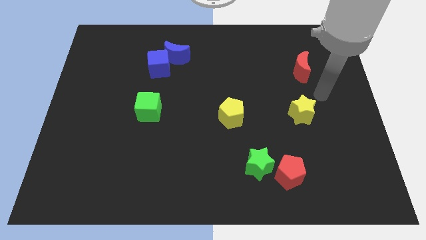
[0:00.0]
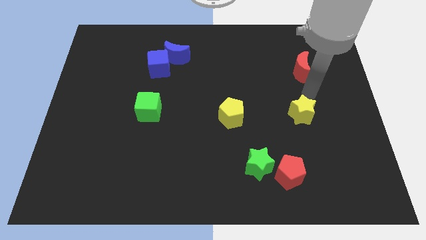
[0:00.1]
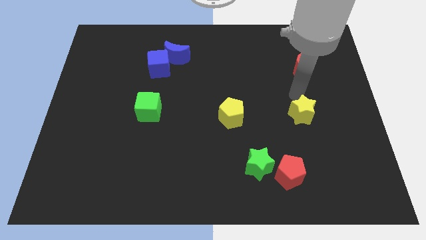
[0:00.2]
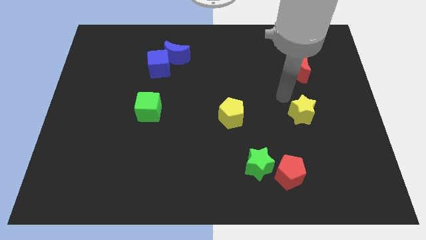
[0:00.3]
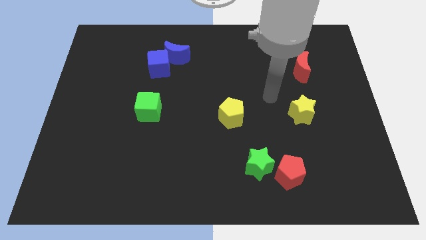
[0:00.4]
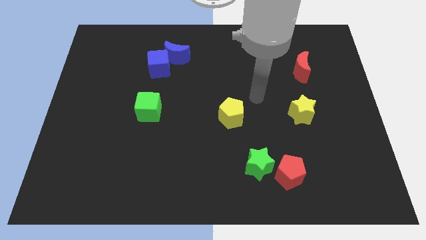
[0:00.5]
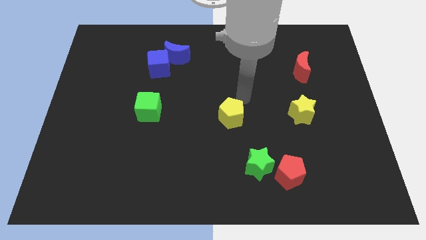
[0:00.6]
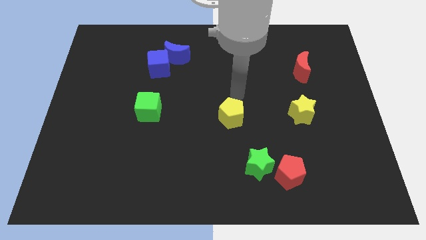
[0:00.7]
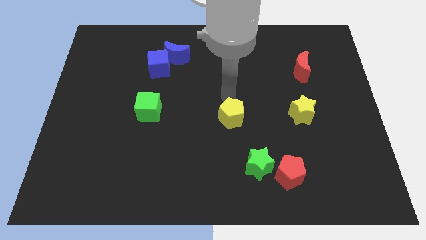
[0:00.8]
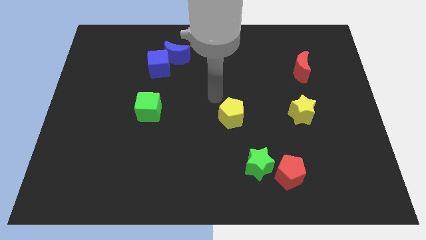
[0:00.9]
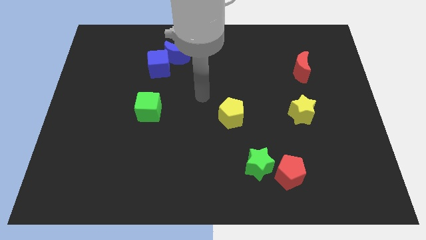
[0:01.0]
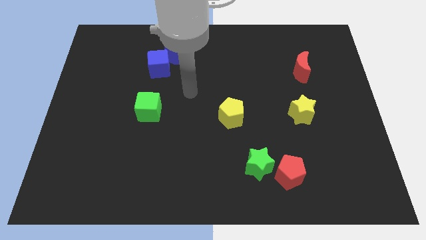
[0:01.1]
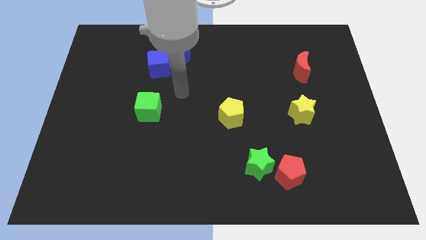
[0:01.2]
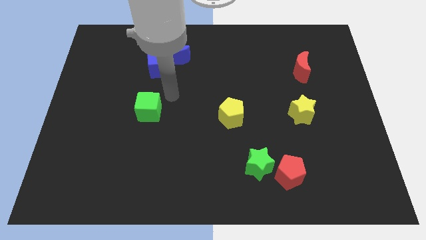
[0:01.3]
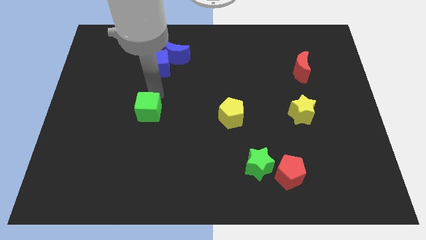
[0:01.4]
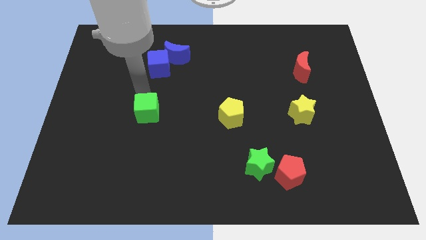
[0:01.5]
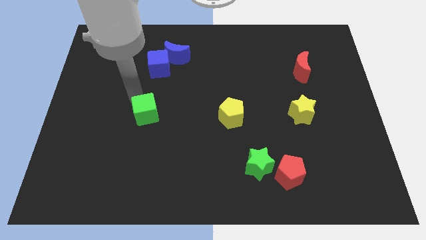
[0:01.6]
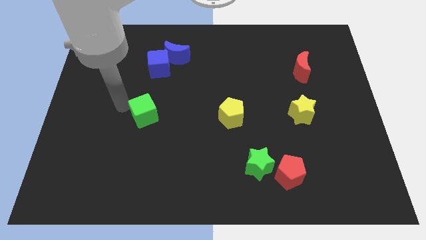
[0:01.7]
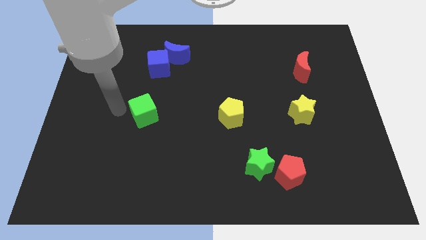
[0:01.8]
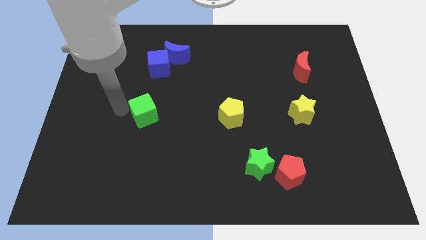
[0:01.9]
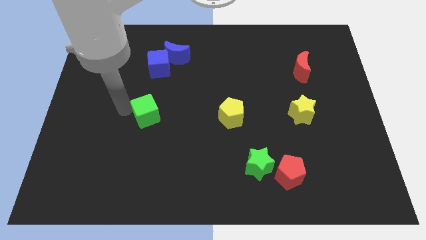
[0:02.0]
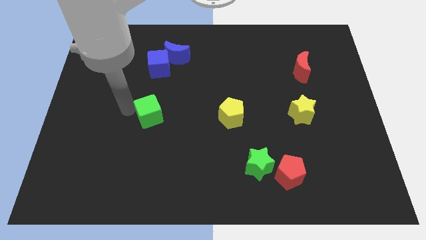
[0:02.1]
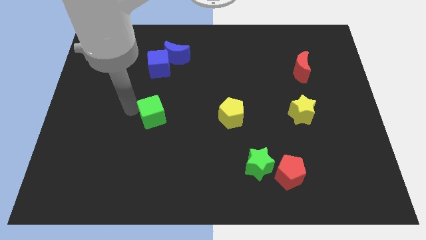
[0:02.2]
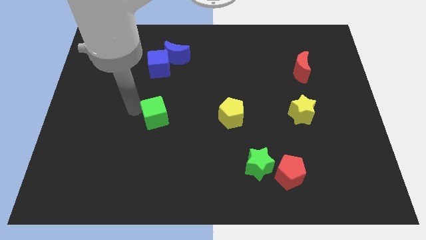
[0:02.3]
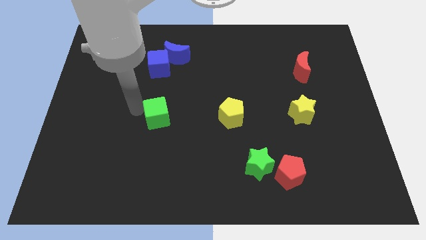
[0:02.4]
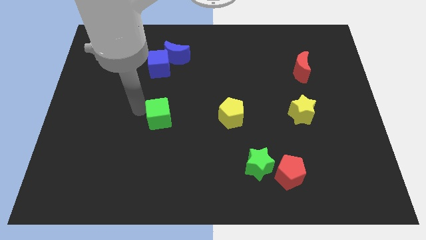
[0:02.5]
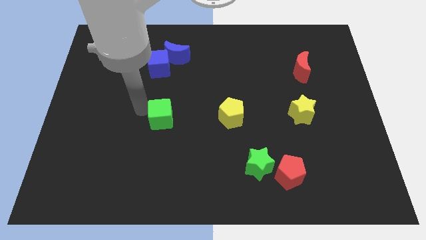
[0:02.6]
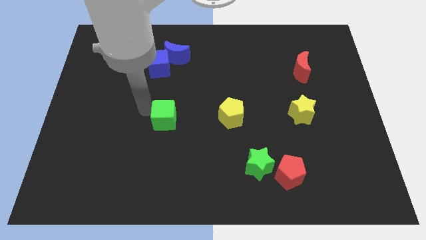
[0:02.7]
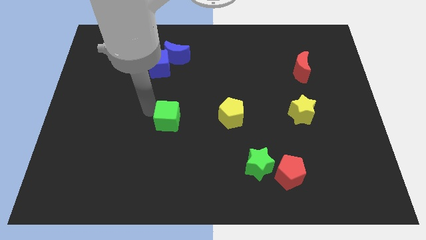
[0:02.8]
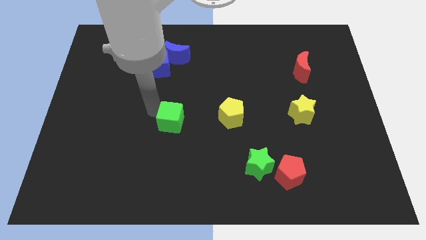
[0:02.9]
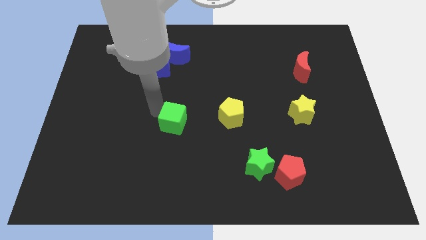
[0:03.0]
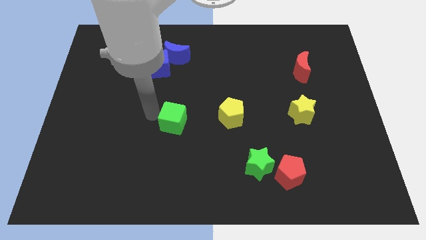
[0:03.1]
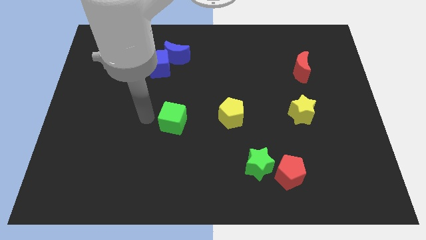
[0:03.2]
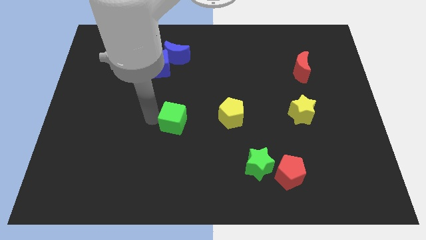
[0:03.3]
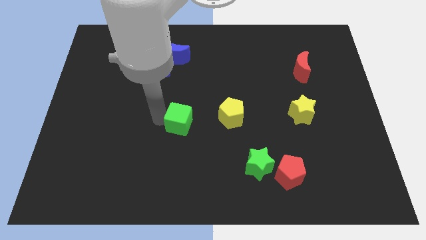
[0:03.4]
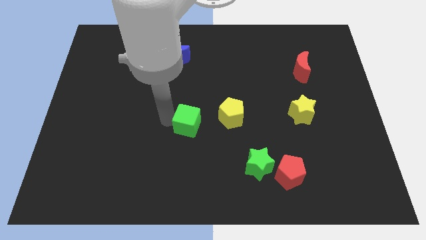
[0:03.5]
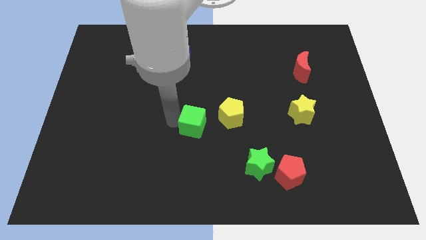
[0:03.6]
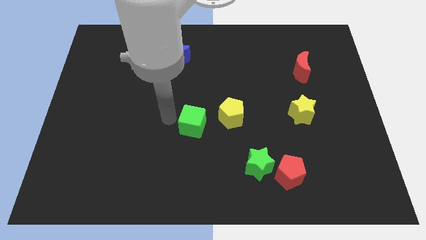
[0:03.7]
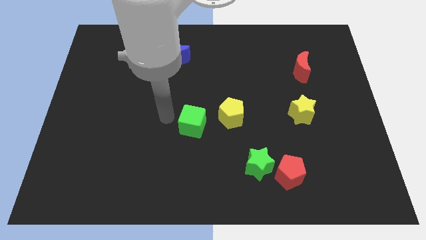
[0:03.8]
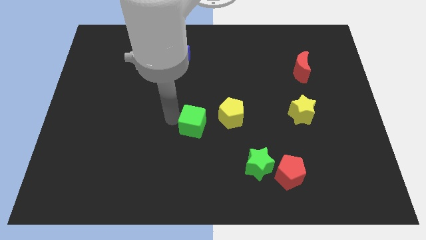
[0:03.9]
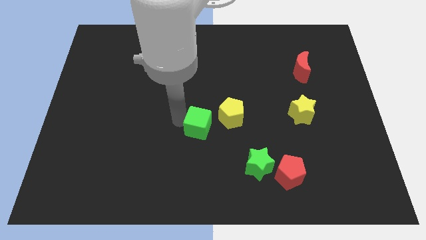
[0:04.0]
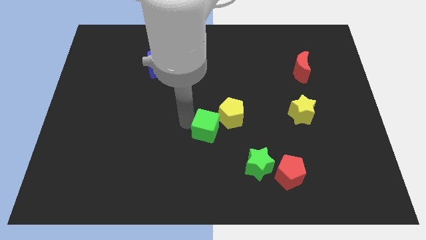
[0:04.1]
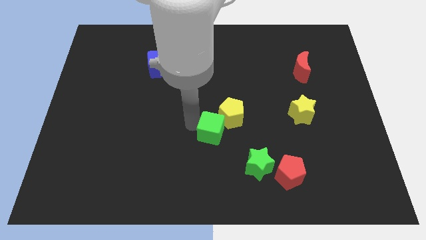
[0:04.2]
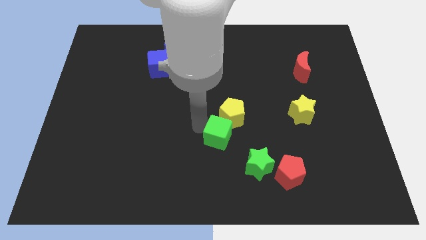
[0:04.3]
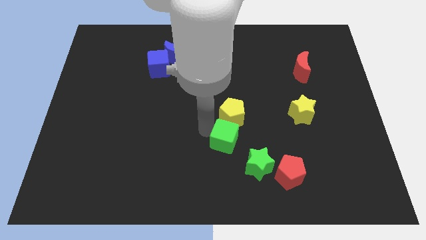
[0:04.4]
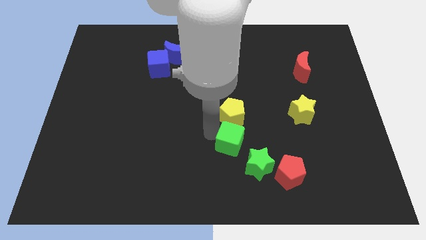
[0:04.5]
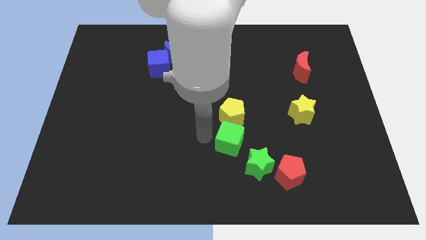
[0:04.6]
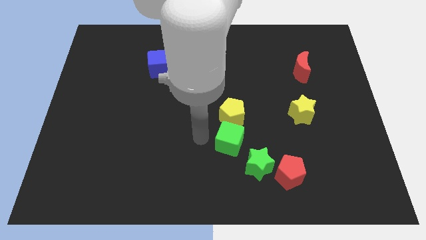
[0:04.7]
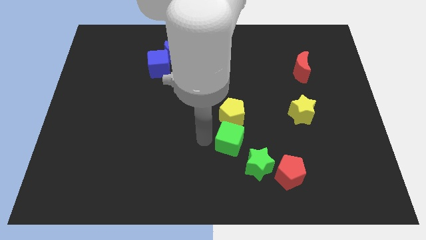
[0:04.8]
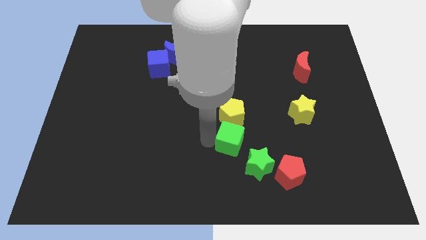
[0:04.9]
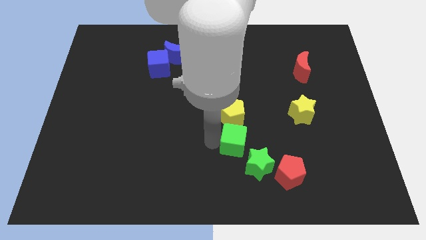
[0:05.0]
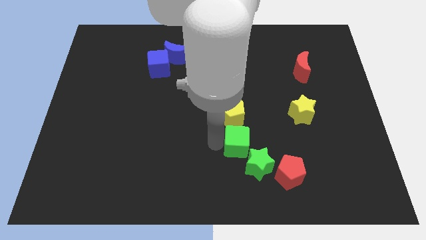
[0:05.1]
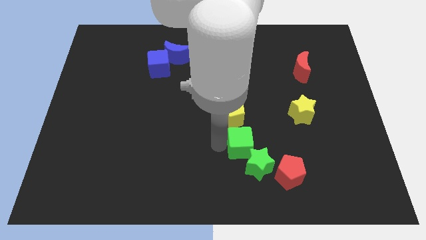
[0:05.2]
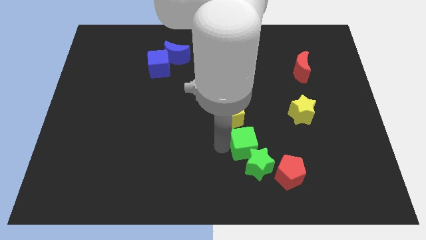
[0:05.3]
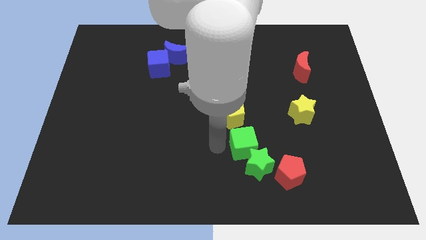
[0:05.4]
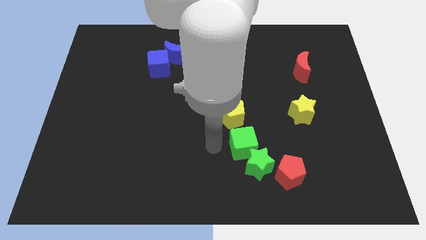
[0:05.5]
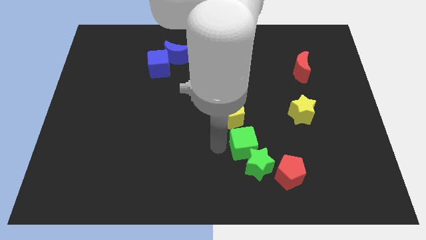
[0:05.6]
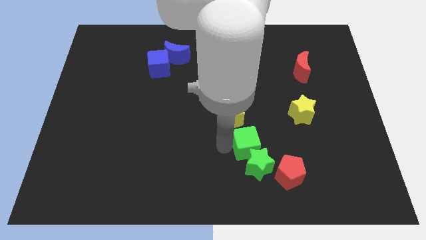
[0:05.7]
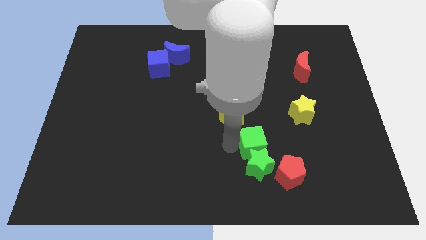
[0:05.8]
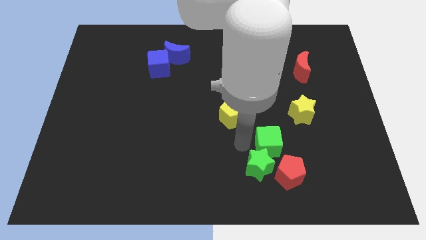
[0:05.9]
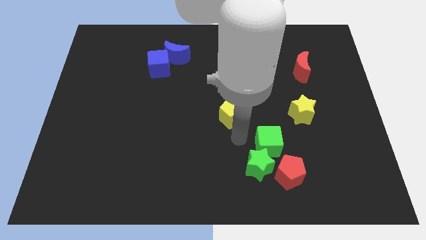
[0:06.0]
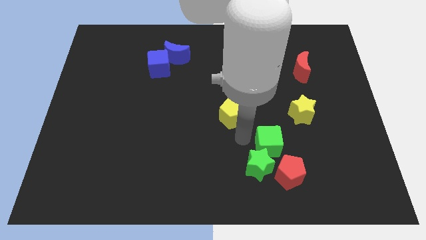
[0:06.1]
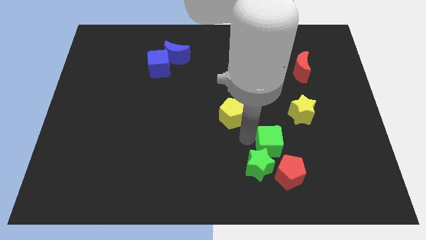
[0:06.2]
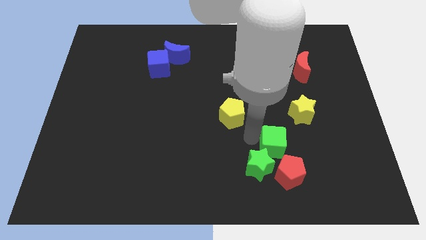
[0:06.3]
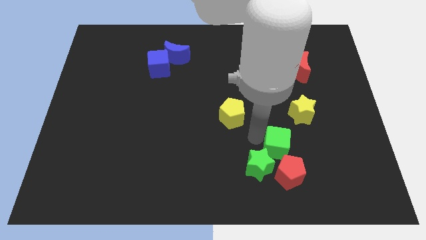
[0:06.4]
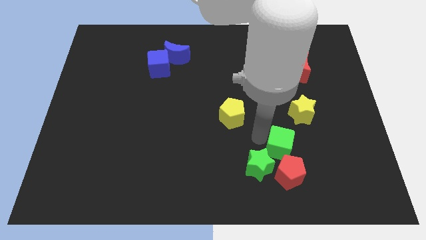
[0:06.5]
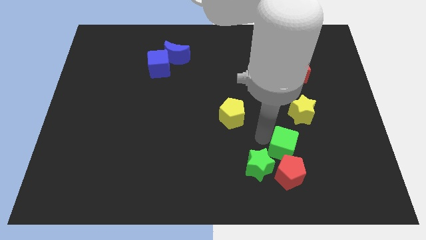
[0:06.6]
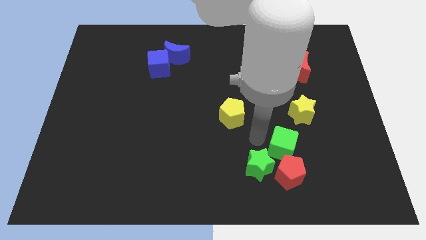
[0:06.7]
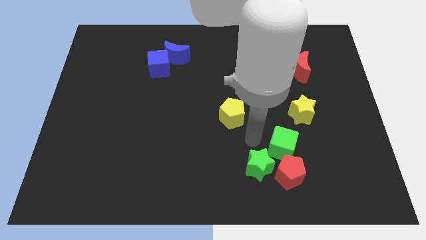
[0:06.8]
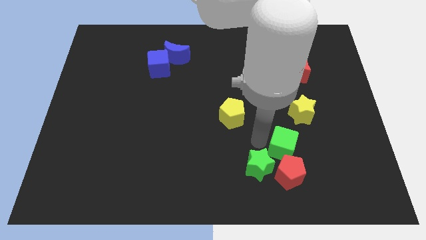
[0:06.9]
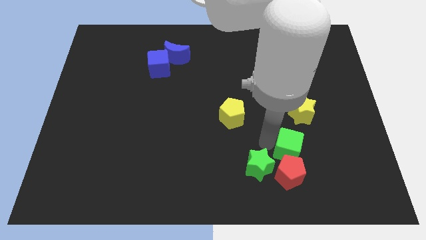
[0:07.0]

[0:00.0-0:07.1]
move the green cube diagonally up and to the right of the red pentagon
